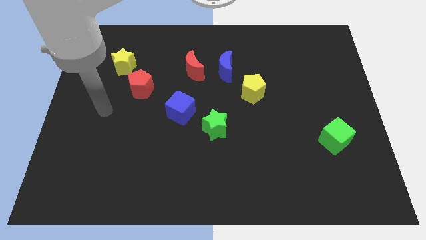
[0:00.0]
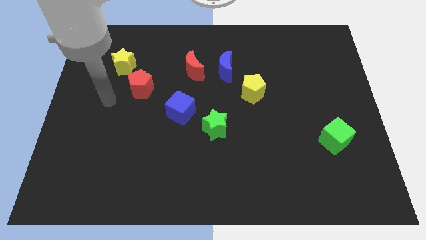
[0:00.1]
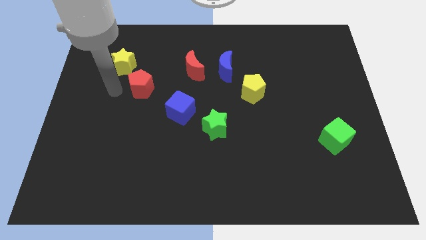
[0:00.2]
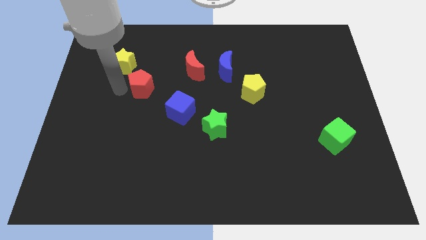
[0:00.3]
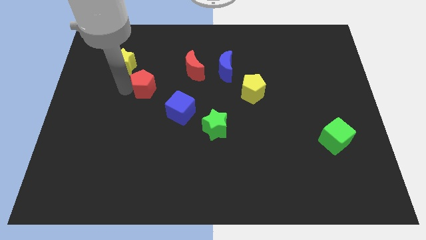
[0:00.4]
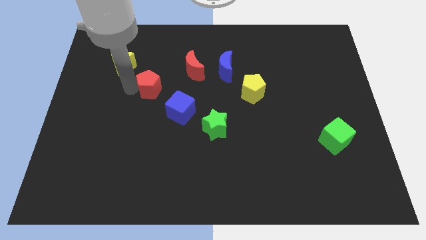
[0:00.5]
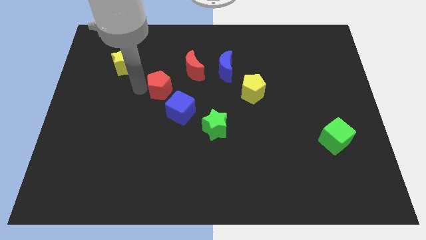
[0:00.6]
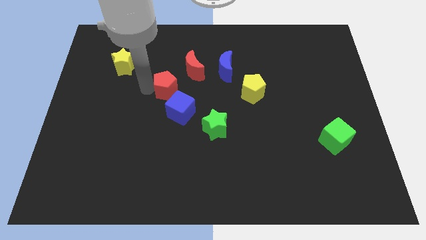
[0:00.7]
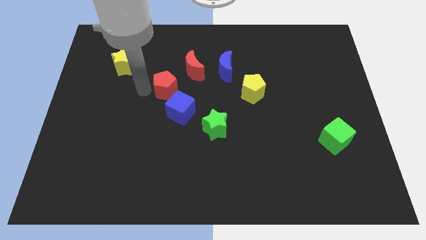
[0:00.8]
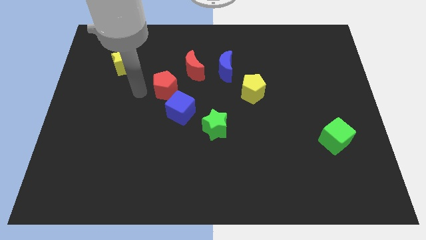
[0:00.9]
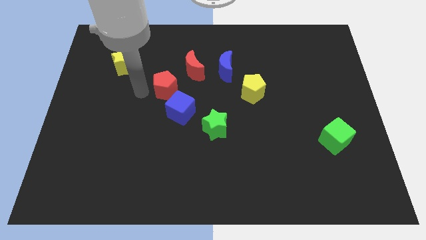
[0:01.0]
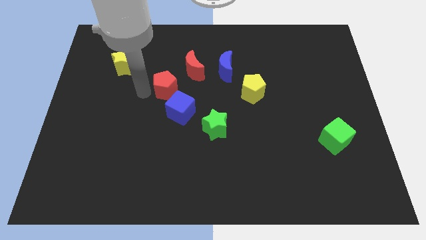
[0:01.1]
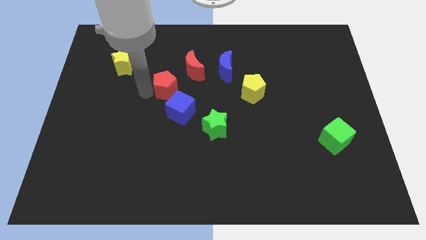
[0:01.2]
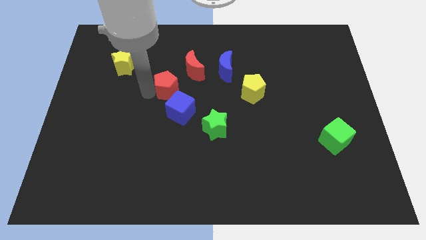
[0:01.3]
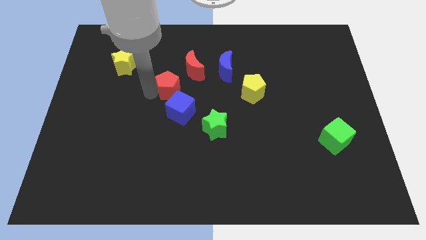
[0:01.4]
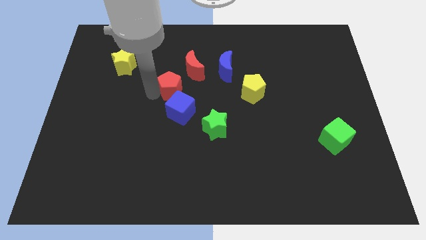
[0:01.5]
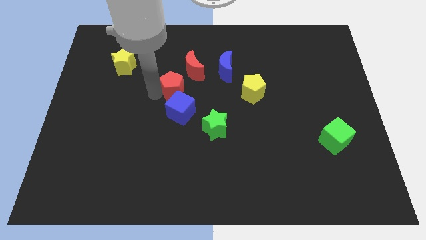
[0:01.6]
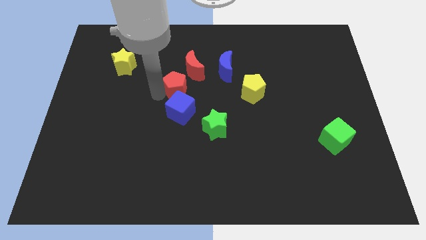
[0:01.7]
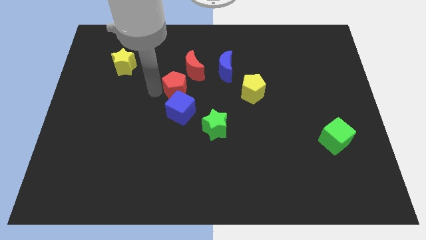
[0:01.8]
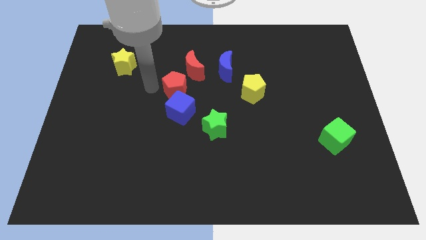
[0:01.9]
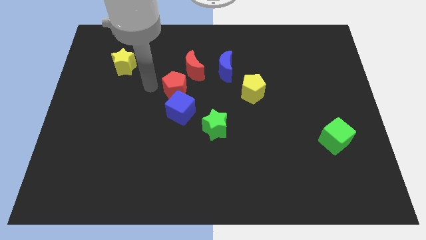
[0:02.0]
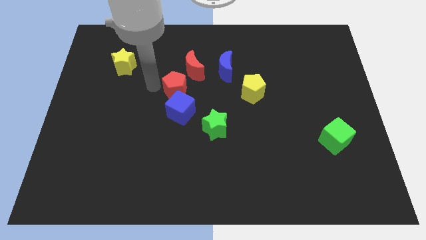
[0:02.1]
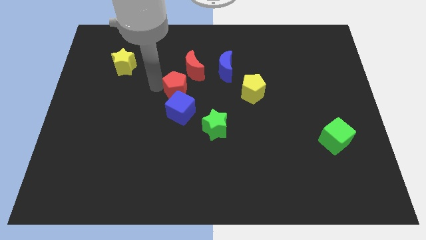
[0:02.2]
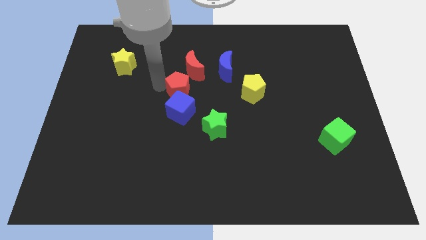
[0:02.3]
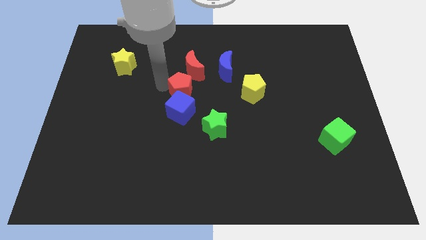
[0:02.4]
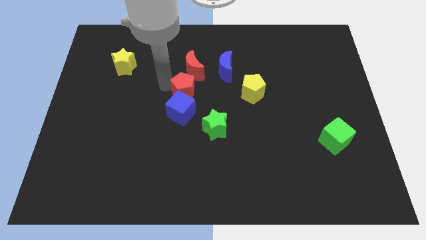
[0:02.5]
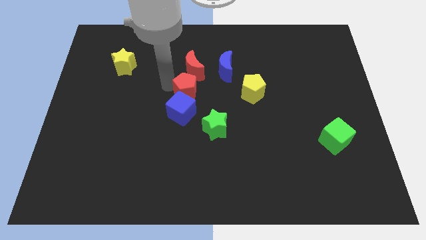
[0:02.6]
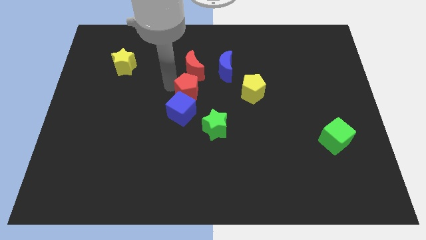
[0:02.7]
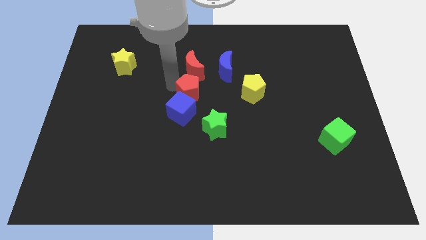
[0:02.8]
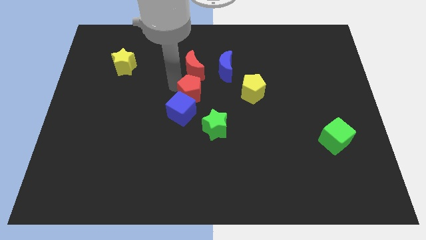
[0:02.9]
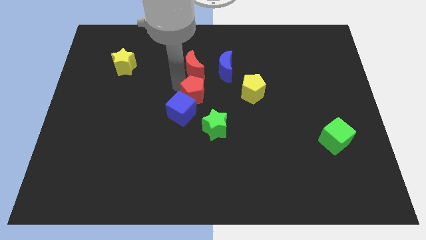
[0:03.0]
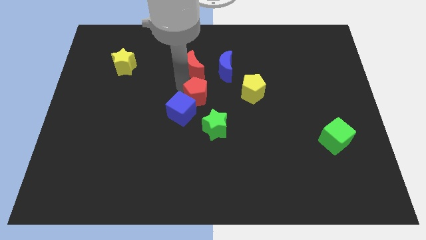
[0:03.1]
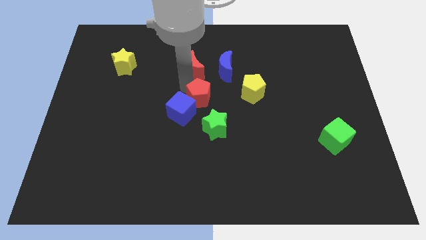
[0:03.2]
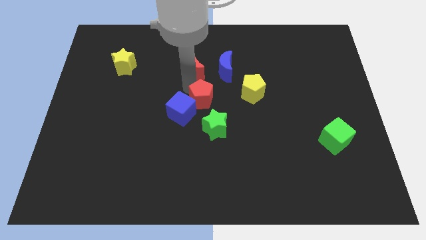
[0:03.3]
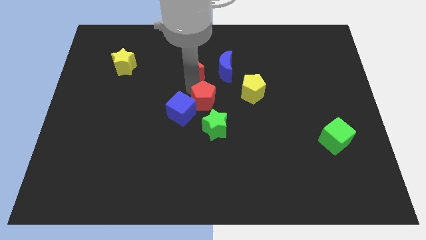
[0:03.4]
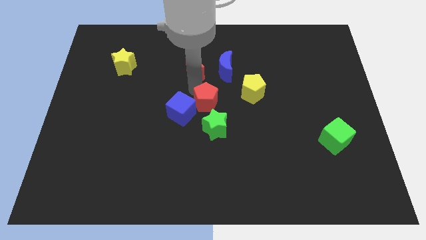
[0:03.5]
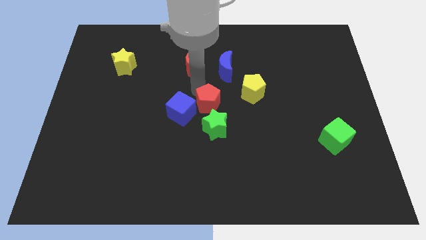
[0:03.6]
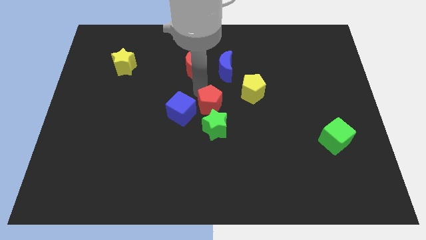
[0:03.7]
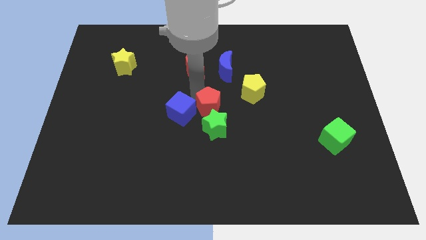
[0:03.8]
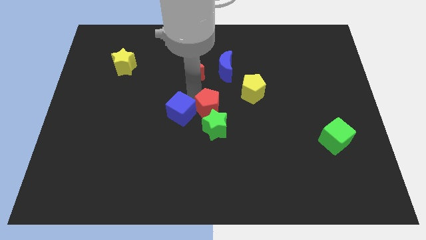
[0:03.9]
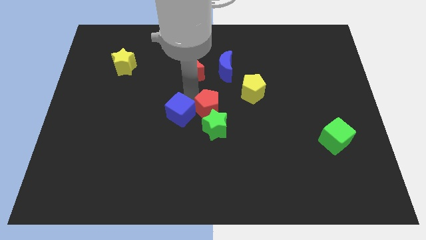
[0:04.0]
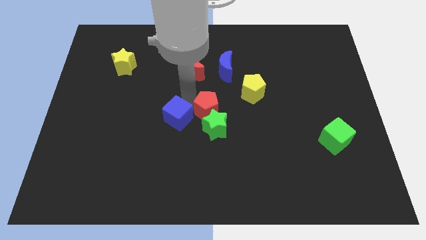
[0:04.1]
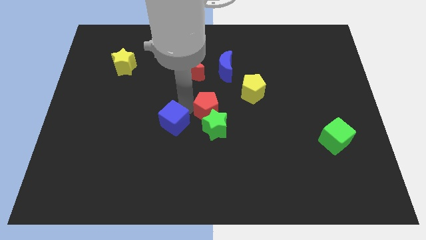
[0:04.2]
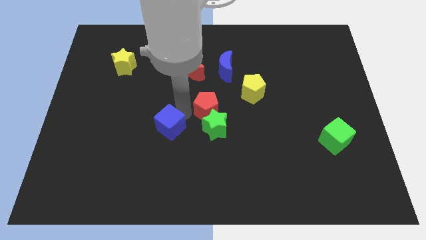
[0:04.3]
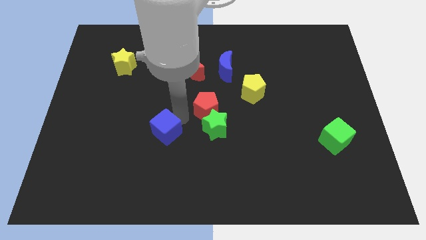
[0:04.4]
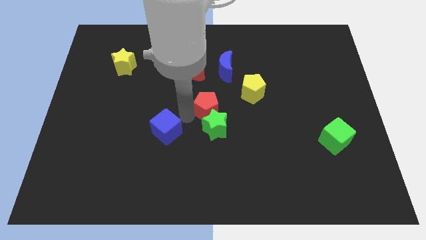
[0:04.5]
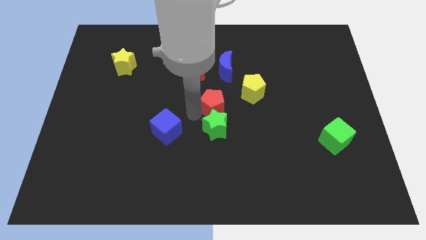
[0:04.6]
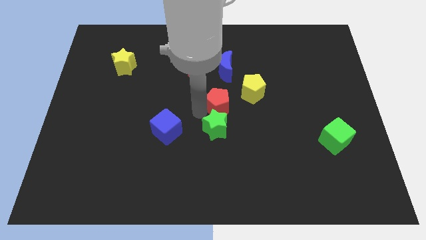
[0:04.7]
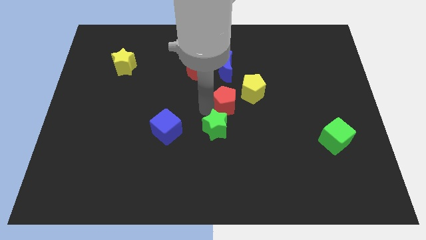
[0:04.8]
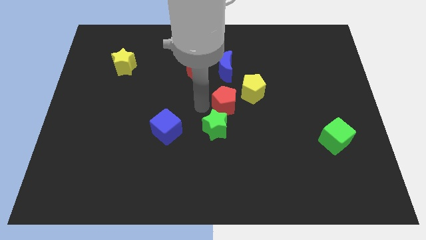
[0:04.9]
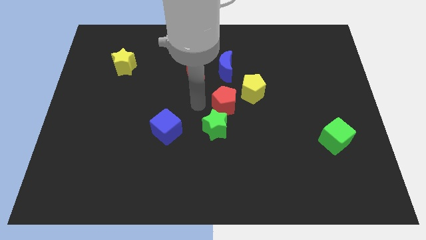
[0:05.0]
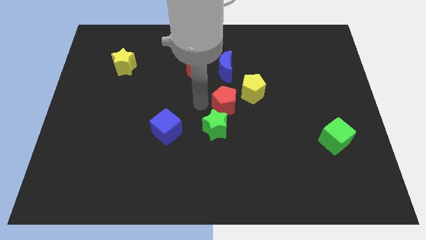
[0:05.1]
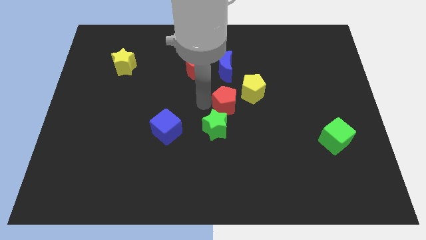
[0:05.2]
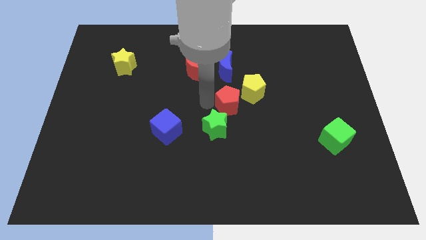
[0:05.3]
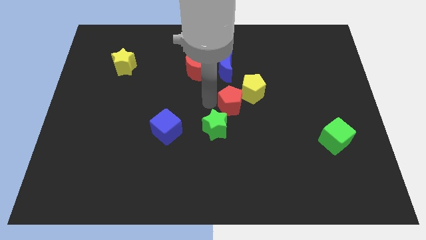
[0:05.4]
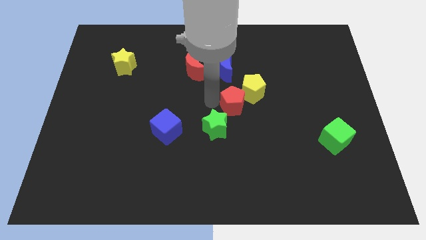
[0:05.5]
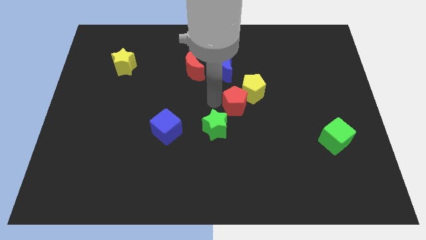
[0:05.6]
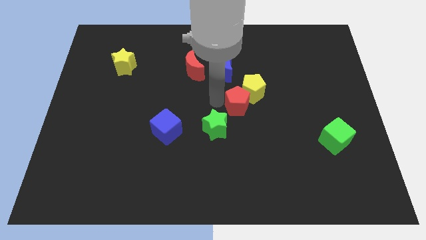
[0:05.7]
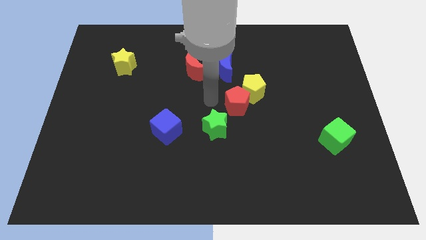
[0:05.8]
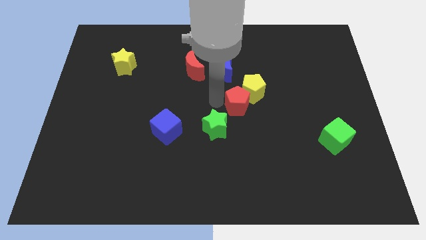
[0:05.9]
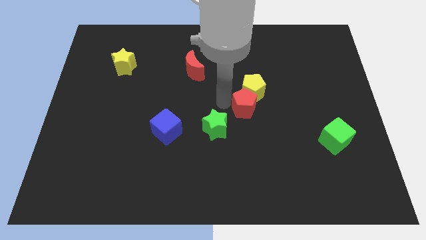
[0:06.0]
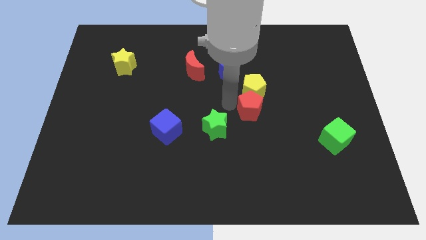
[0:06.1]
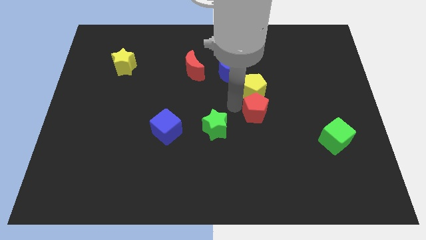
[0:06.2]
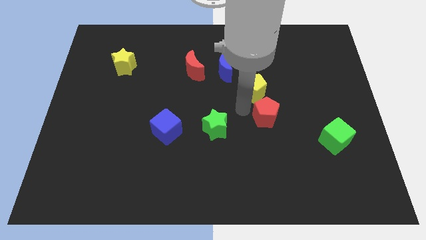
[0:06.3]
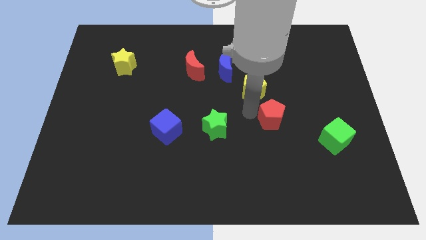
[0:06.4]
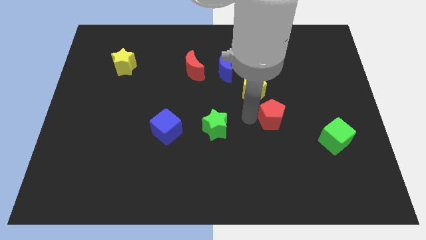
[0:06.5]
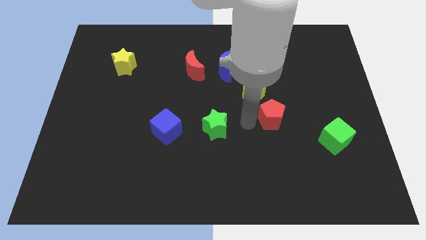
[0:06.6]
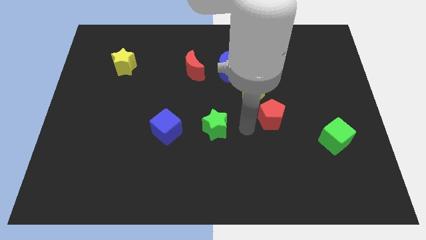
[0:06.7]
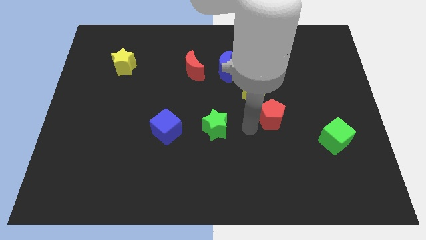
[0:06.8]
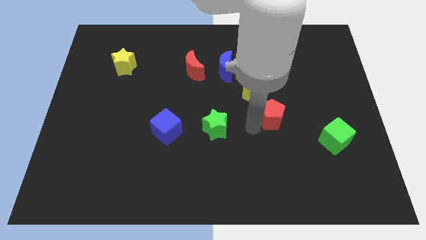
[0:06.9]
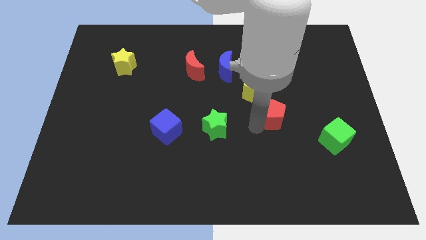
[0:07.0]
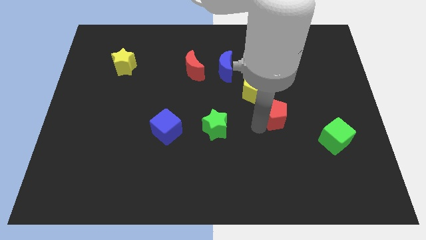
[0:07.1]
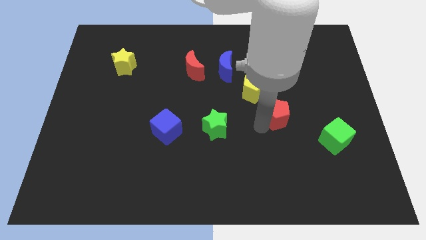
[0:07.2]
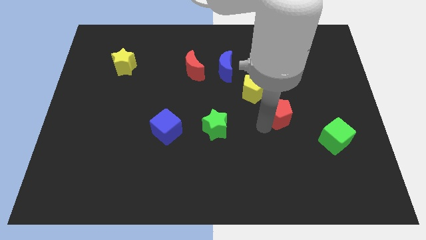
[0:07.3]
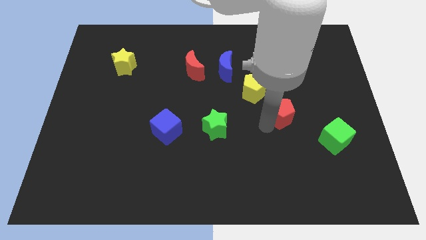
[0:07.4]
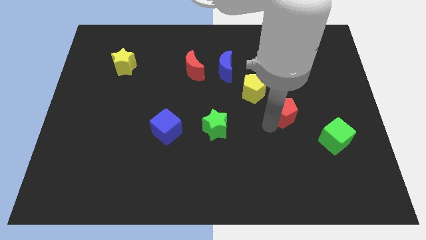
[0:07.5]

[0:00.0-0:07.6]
push the red pentagon to the top left side of the green cube
